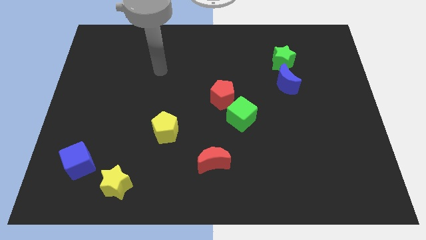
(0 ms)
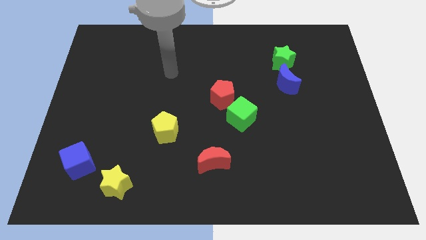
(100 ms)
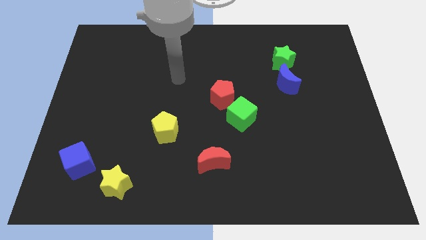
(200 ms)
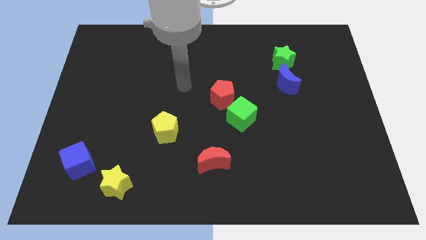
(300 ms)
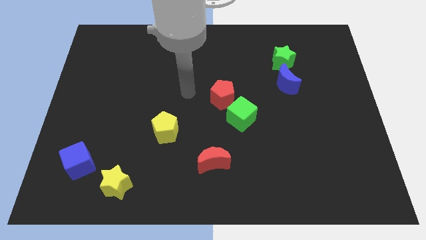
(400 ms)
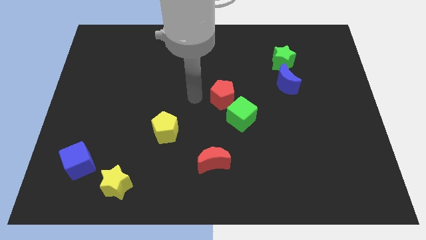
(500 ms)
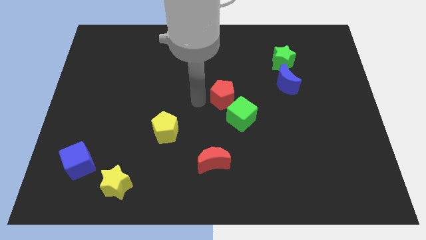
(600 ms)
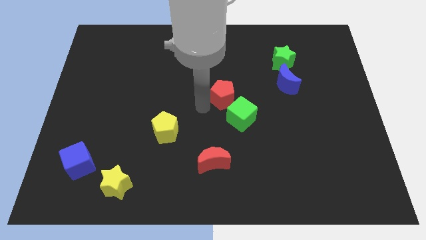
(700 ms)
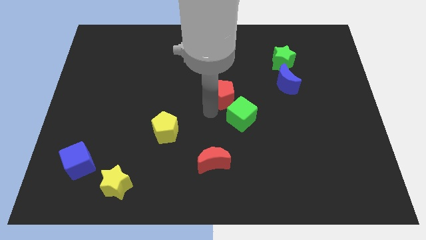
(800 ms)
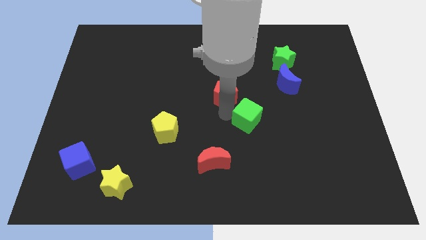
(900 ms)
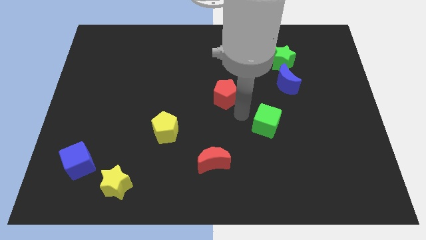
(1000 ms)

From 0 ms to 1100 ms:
separate the red pentagon from the green cube

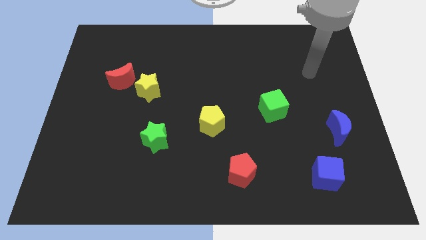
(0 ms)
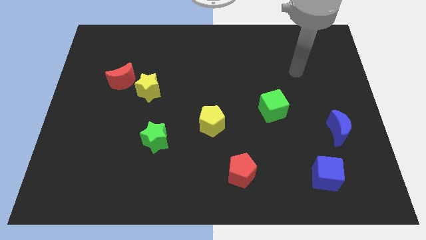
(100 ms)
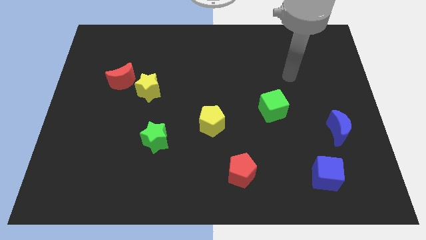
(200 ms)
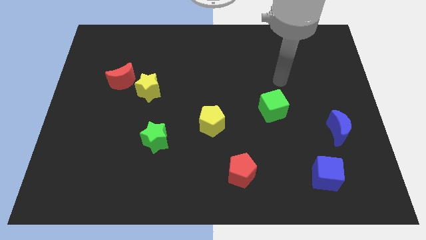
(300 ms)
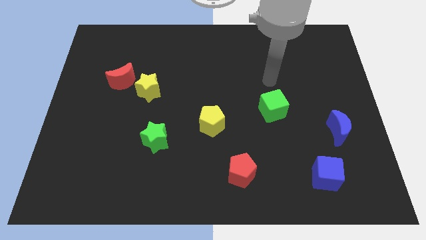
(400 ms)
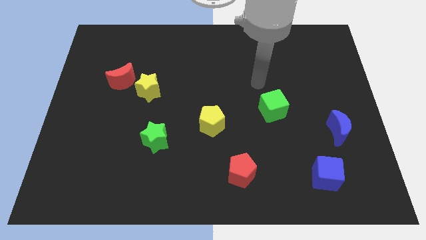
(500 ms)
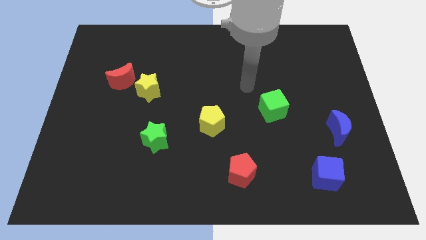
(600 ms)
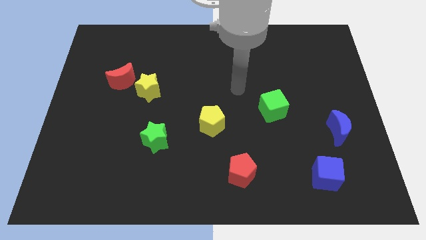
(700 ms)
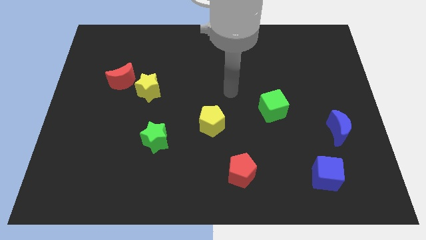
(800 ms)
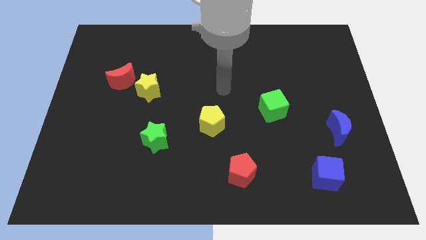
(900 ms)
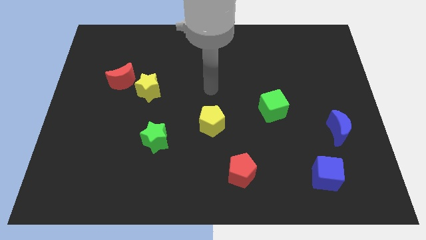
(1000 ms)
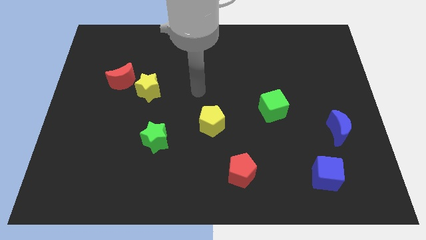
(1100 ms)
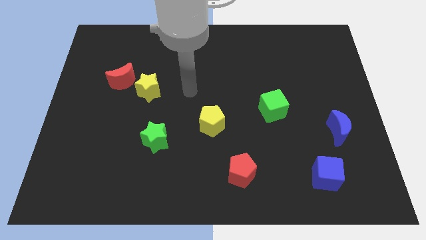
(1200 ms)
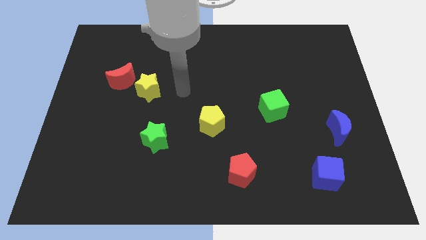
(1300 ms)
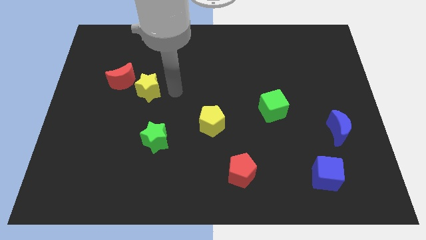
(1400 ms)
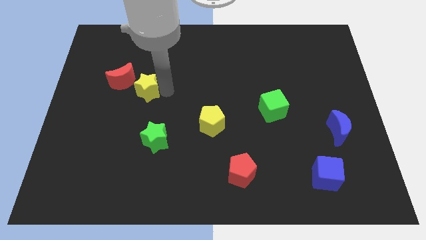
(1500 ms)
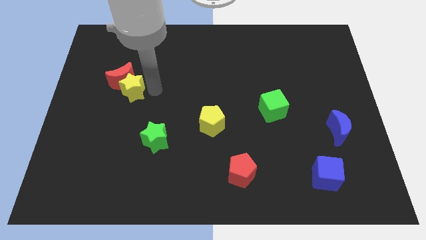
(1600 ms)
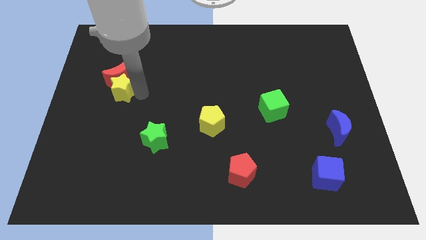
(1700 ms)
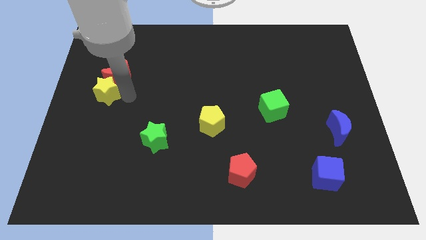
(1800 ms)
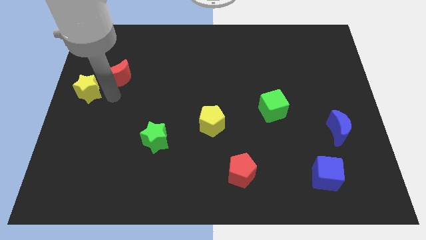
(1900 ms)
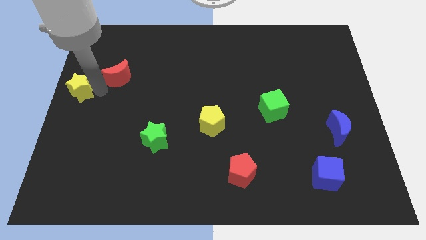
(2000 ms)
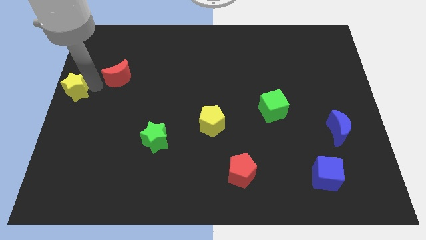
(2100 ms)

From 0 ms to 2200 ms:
move the red moon away from the yellow star

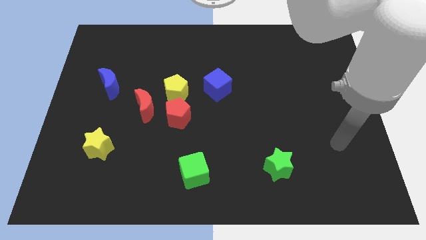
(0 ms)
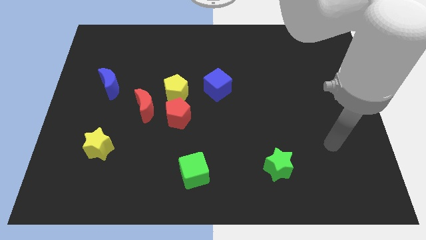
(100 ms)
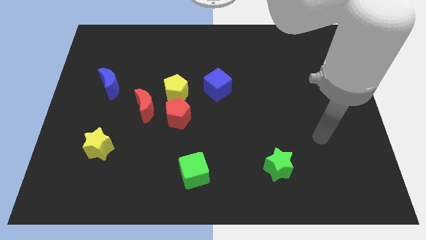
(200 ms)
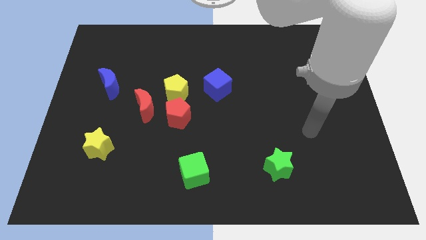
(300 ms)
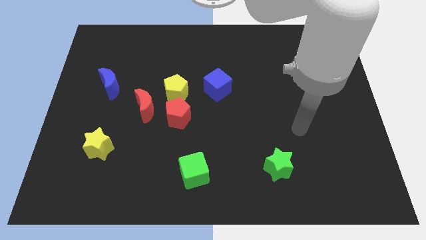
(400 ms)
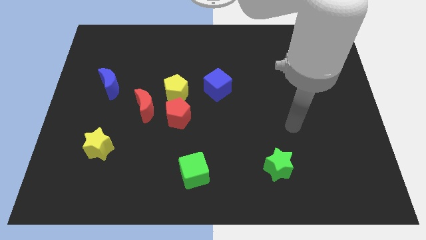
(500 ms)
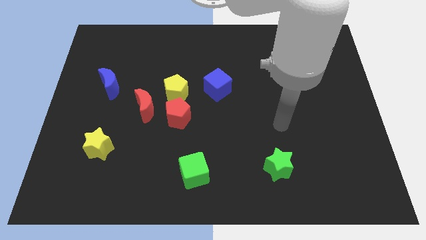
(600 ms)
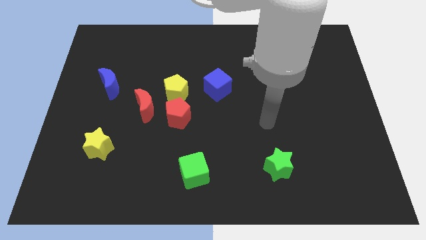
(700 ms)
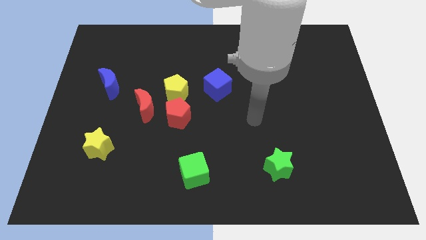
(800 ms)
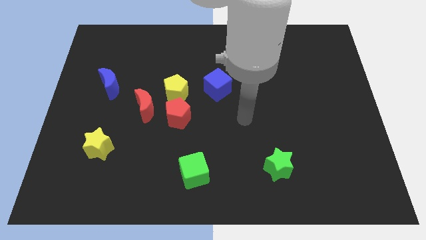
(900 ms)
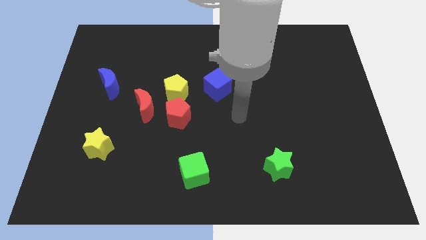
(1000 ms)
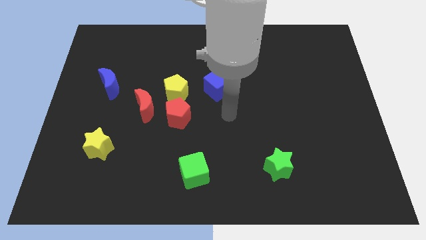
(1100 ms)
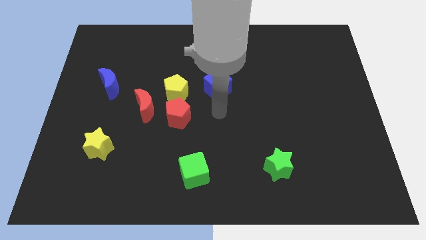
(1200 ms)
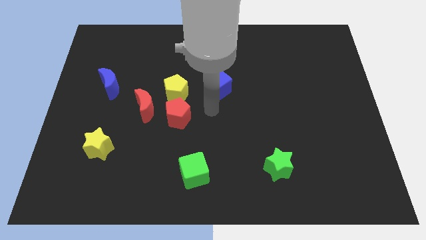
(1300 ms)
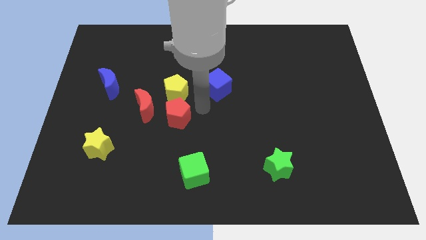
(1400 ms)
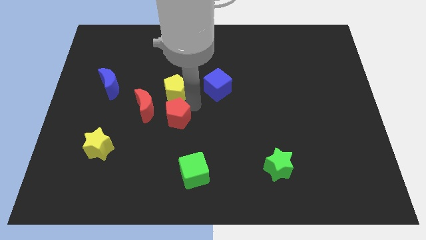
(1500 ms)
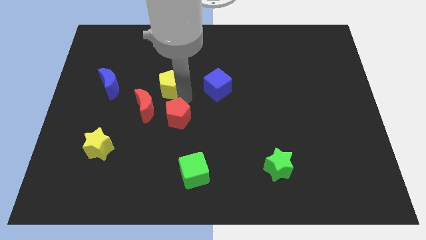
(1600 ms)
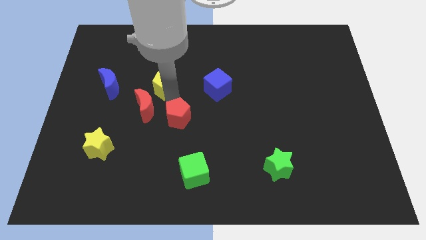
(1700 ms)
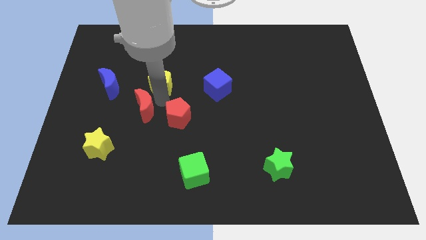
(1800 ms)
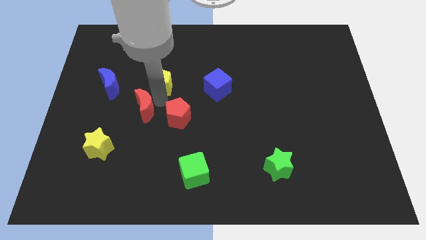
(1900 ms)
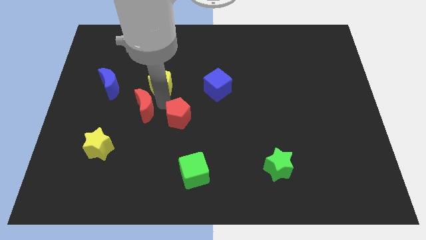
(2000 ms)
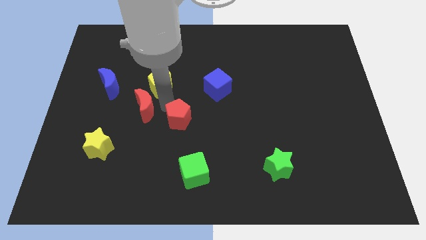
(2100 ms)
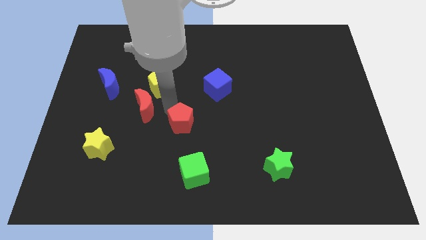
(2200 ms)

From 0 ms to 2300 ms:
move the red pentagon away from the yellow pentagon and red moon

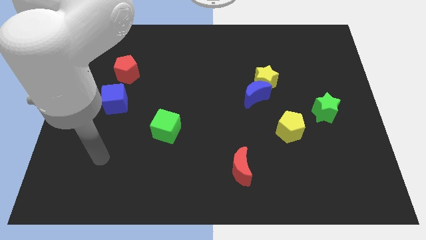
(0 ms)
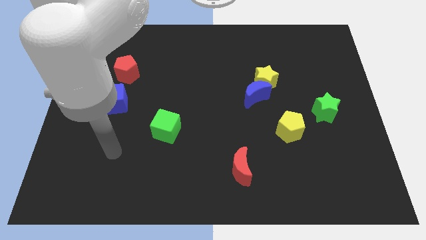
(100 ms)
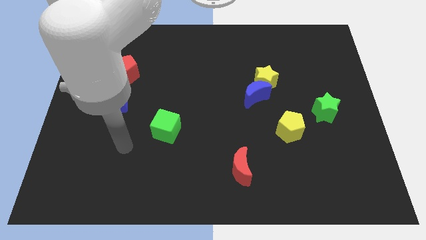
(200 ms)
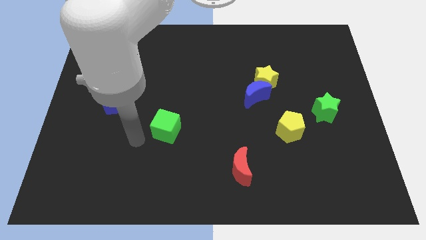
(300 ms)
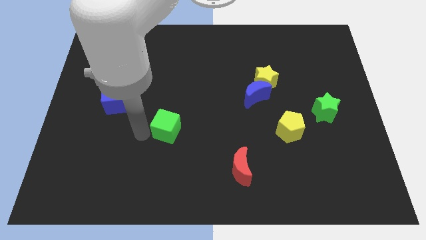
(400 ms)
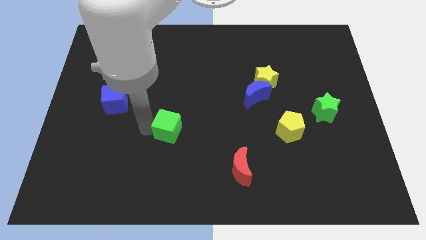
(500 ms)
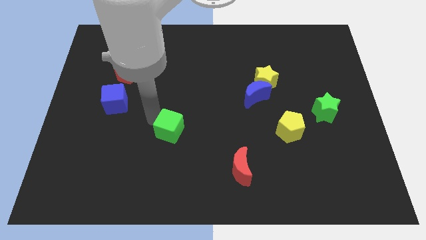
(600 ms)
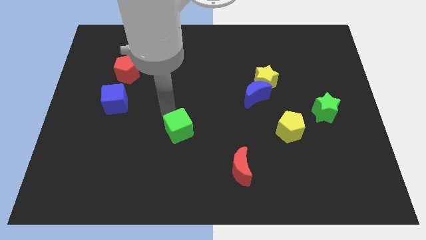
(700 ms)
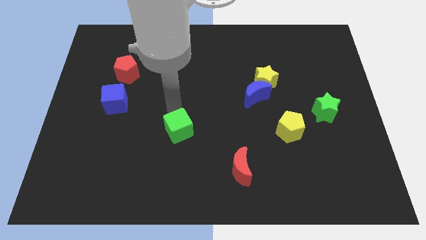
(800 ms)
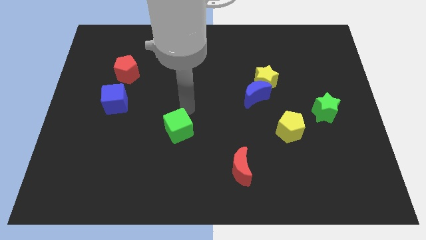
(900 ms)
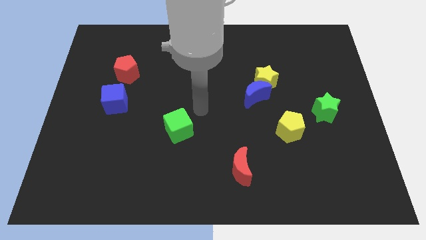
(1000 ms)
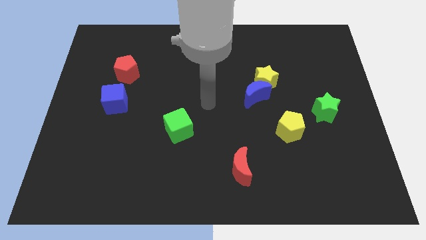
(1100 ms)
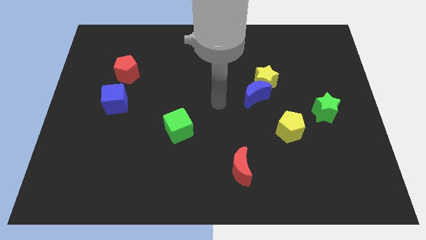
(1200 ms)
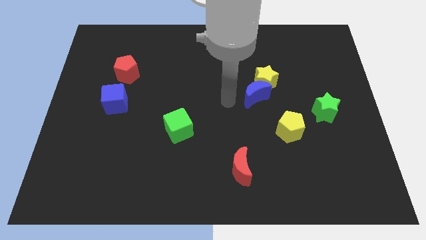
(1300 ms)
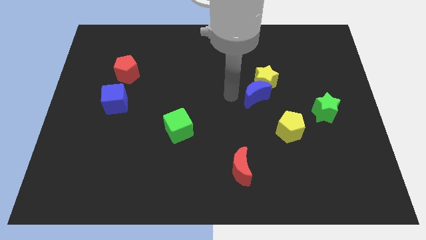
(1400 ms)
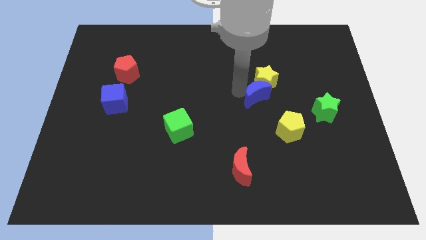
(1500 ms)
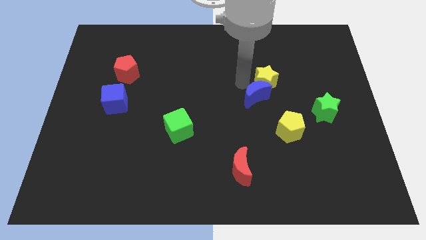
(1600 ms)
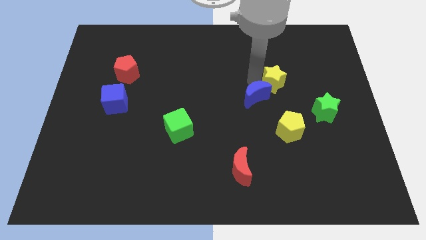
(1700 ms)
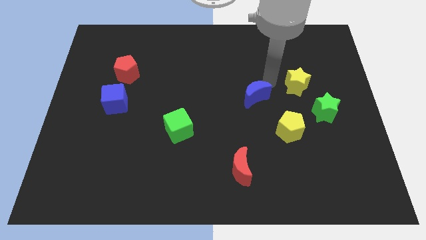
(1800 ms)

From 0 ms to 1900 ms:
move the blue moon away from the yellow star

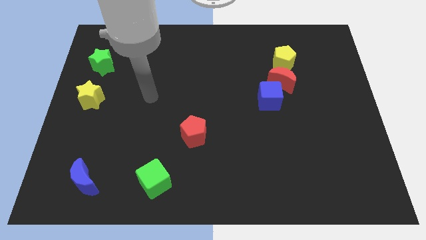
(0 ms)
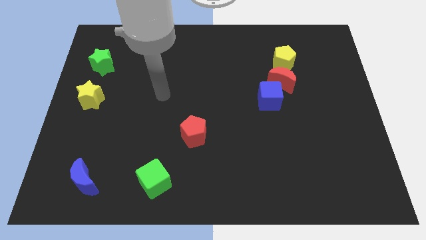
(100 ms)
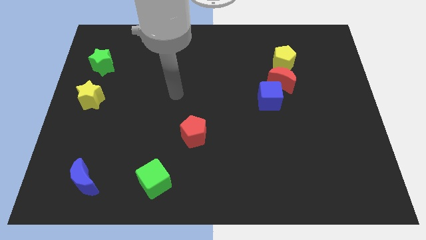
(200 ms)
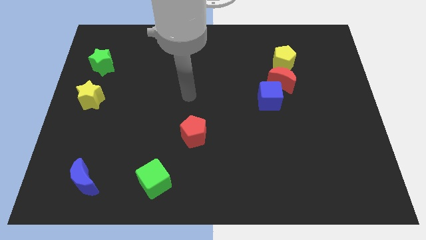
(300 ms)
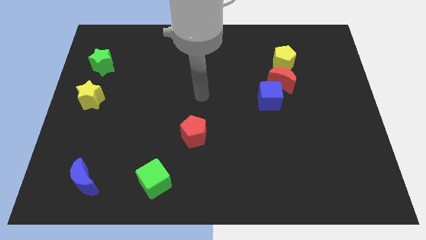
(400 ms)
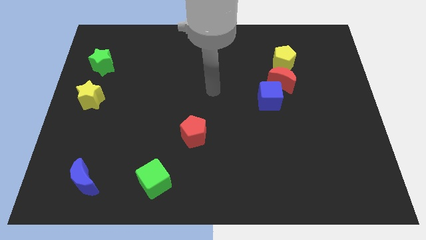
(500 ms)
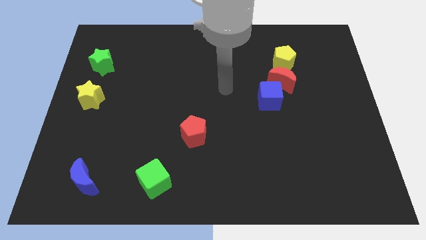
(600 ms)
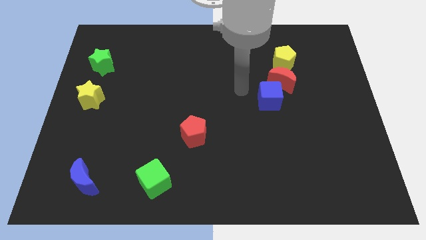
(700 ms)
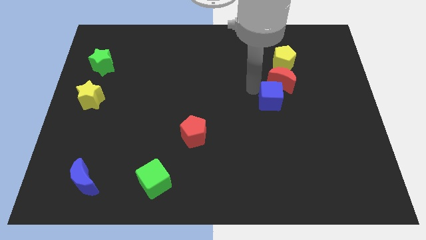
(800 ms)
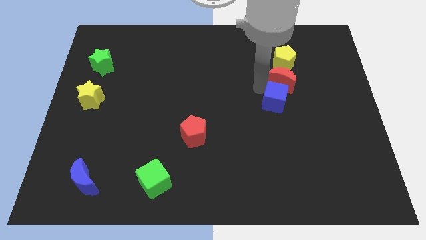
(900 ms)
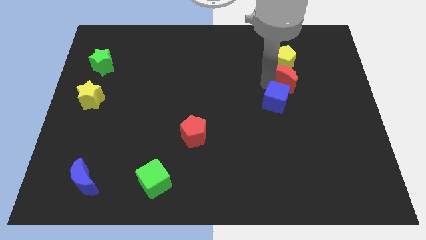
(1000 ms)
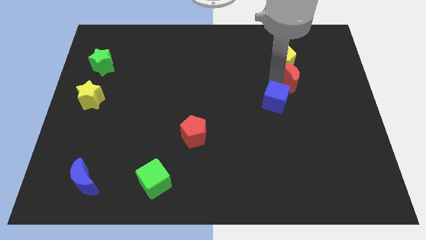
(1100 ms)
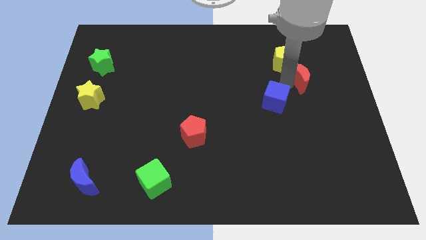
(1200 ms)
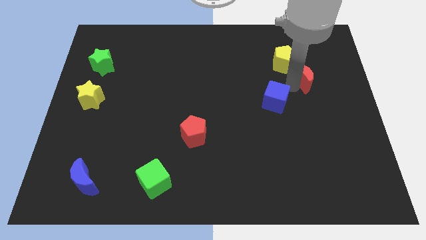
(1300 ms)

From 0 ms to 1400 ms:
separate the blue cube from the red moon

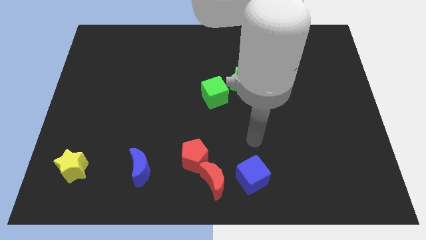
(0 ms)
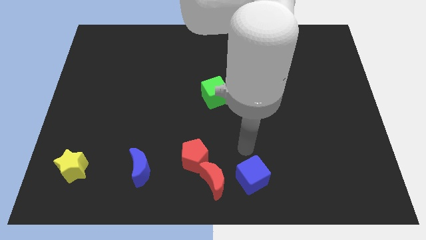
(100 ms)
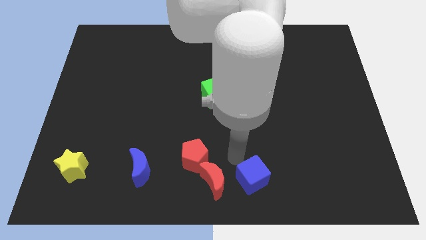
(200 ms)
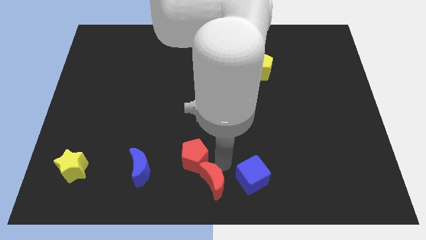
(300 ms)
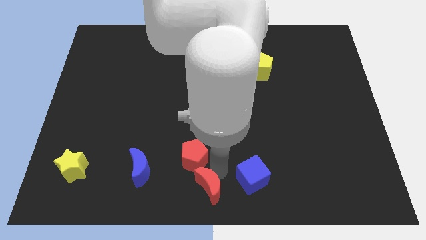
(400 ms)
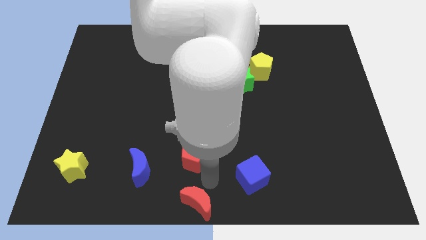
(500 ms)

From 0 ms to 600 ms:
pull the red pentagon apart from the red moon
